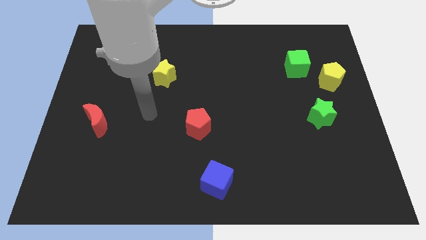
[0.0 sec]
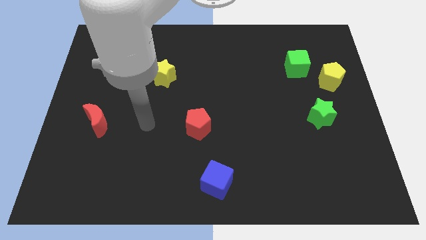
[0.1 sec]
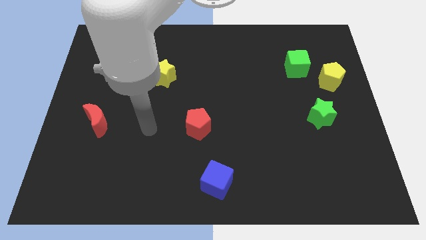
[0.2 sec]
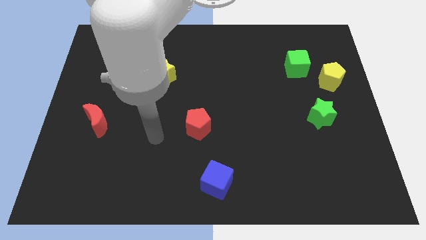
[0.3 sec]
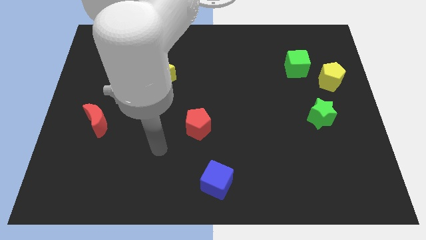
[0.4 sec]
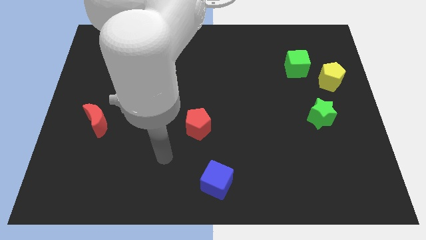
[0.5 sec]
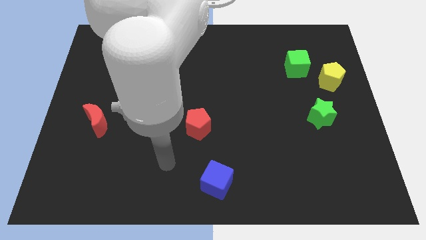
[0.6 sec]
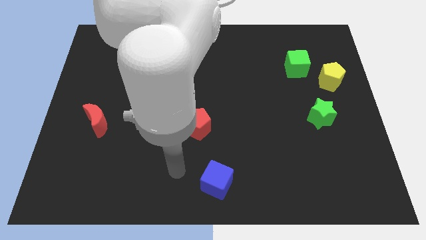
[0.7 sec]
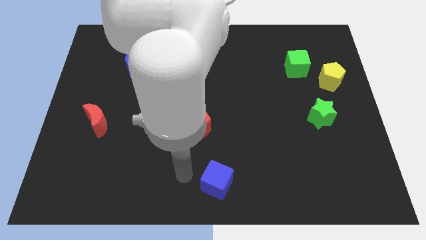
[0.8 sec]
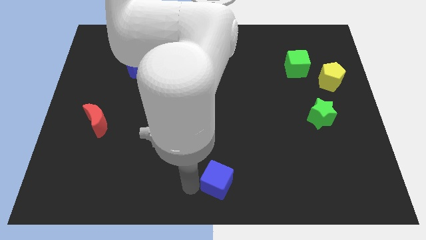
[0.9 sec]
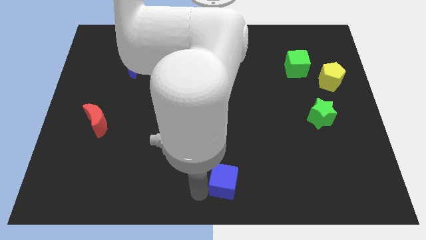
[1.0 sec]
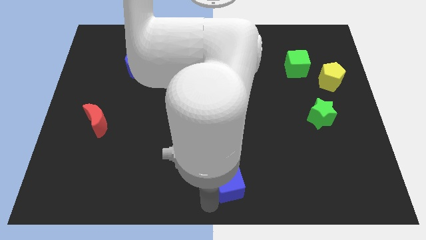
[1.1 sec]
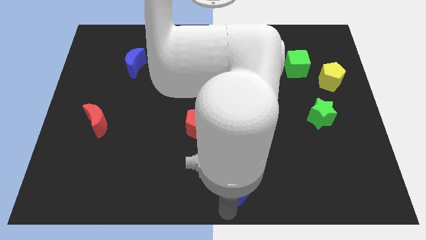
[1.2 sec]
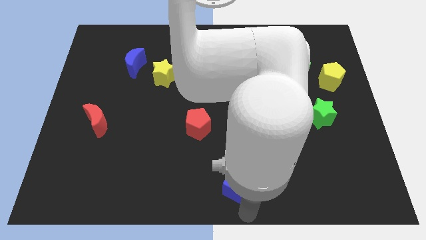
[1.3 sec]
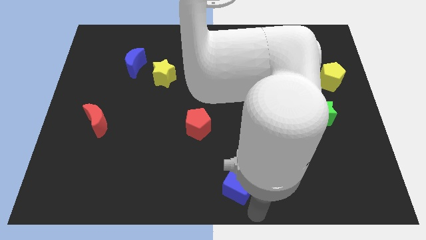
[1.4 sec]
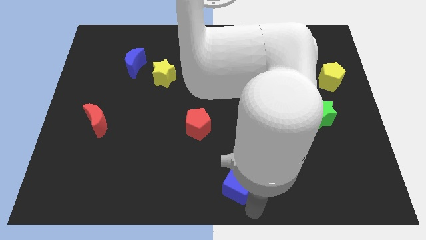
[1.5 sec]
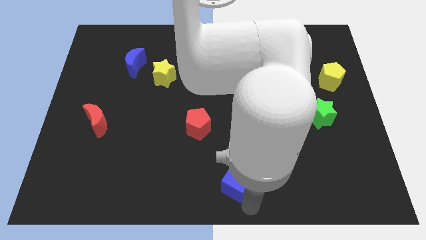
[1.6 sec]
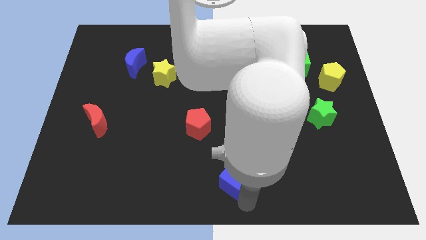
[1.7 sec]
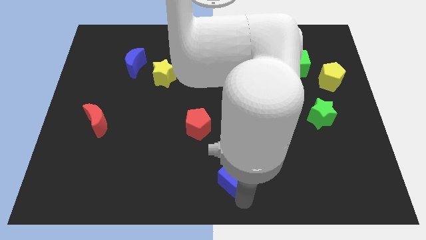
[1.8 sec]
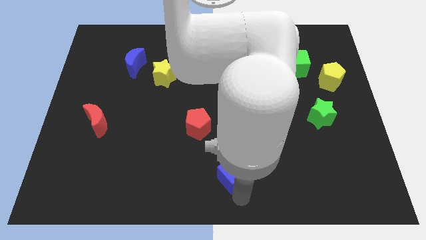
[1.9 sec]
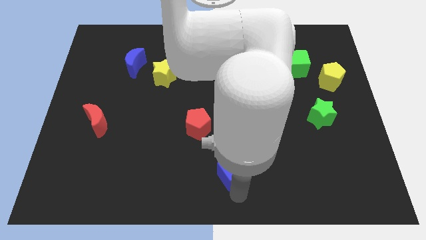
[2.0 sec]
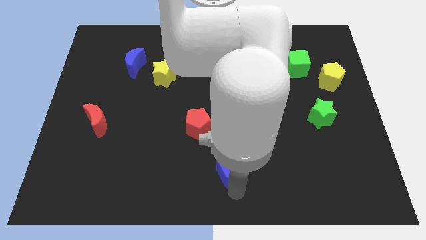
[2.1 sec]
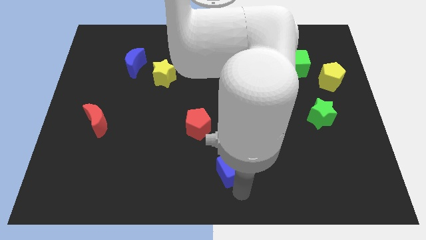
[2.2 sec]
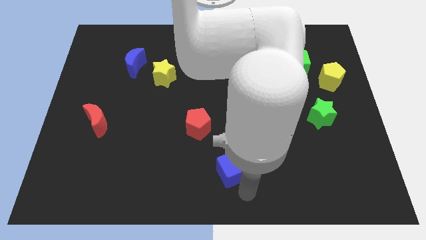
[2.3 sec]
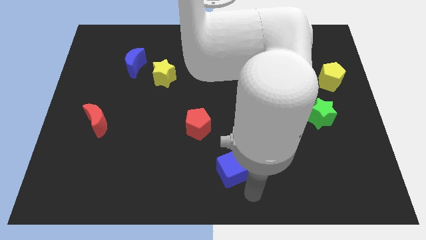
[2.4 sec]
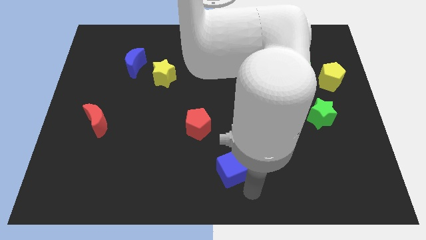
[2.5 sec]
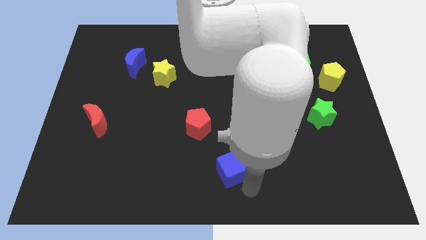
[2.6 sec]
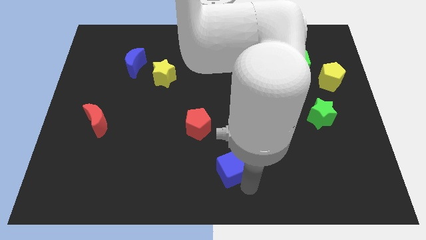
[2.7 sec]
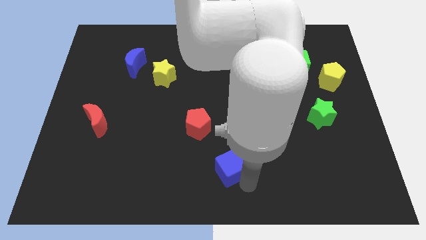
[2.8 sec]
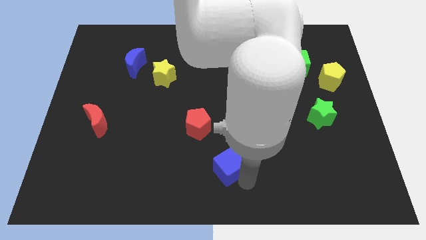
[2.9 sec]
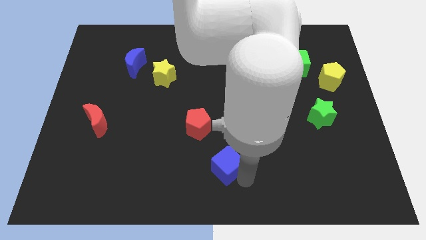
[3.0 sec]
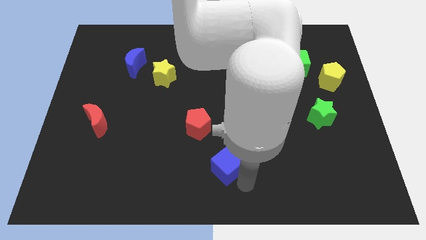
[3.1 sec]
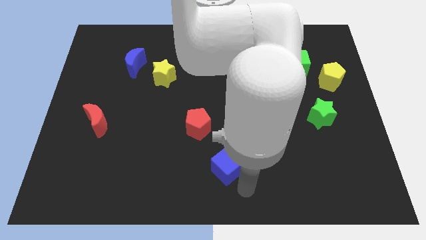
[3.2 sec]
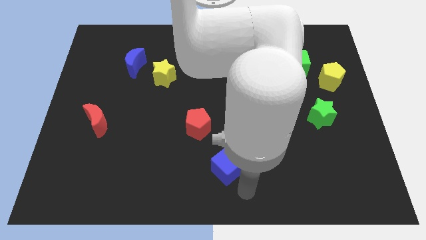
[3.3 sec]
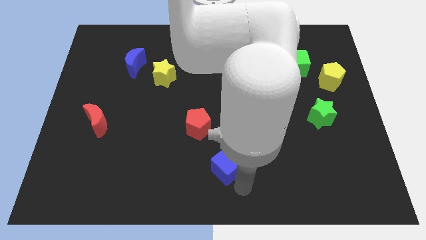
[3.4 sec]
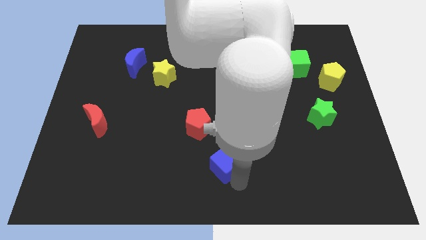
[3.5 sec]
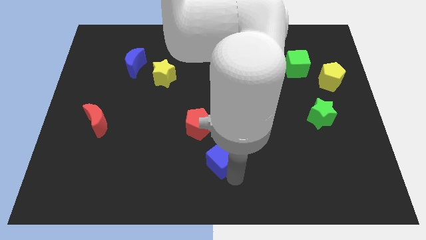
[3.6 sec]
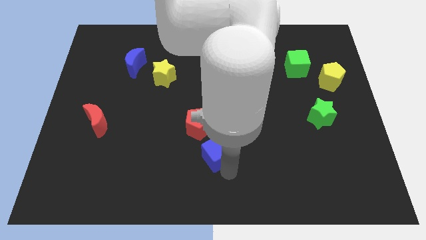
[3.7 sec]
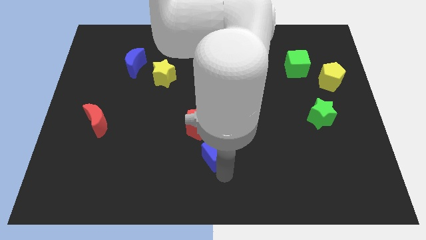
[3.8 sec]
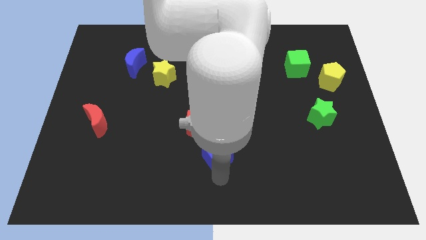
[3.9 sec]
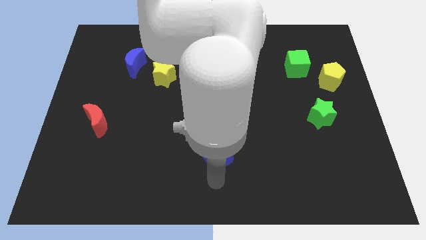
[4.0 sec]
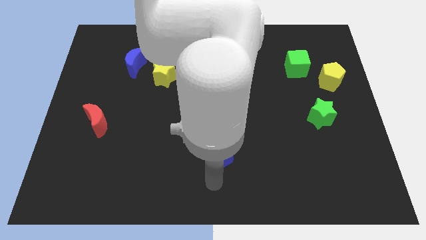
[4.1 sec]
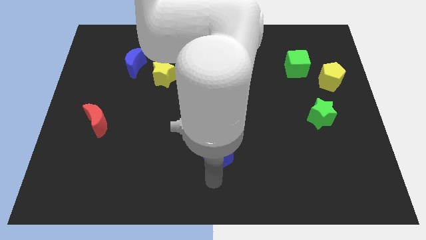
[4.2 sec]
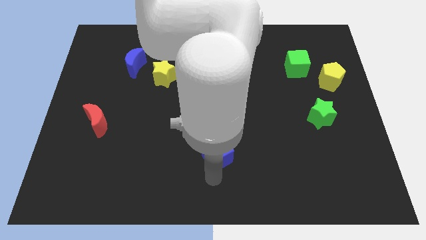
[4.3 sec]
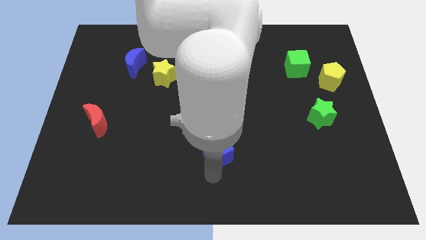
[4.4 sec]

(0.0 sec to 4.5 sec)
slightly push the blue cube up

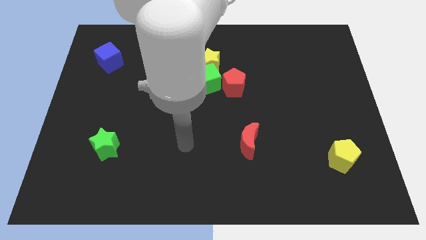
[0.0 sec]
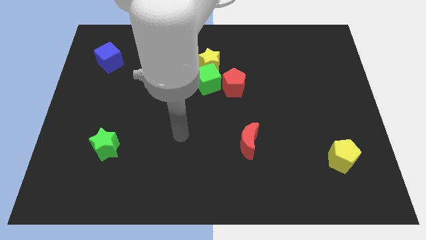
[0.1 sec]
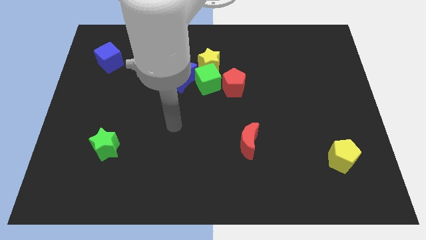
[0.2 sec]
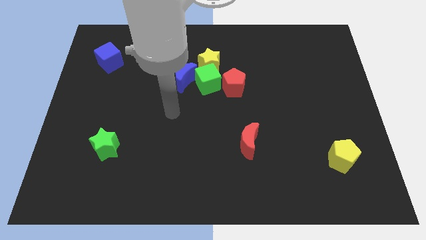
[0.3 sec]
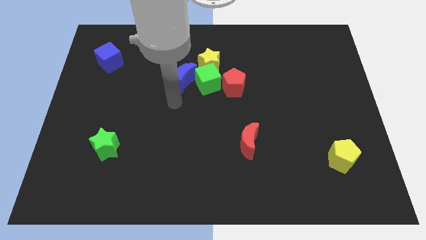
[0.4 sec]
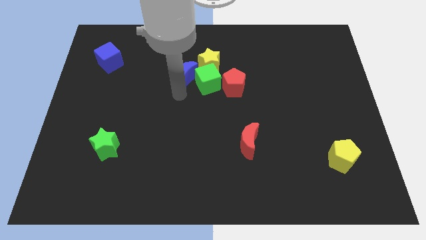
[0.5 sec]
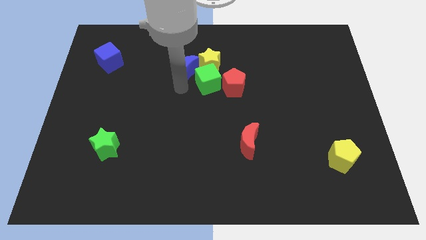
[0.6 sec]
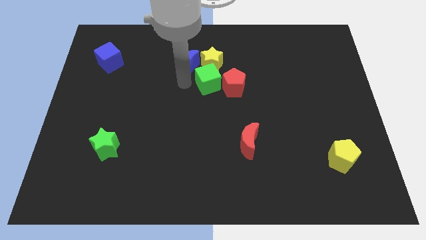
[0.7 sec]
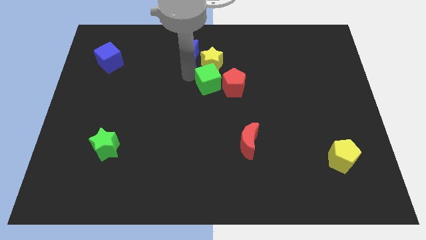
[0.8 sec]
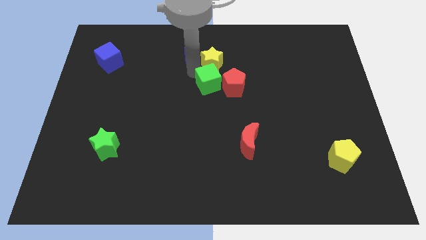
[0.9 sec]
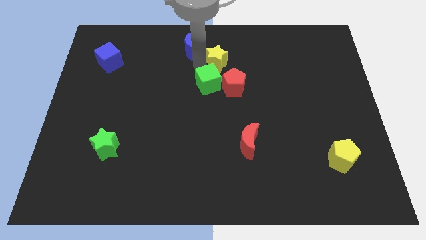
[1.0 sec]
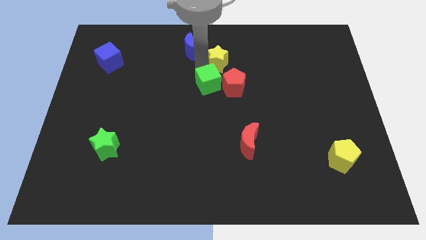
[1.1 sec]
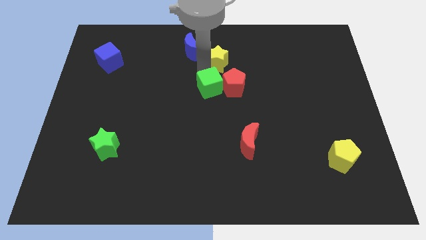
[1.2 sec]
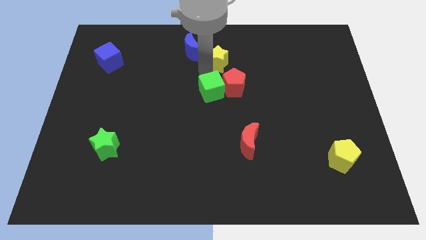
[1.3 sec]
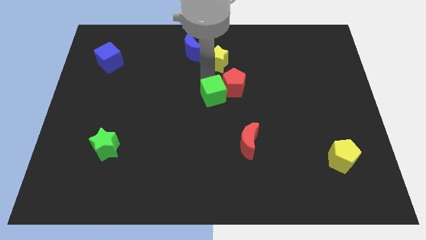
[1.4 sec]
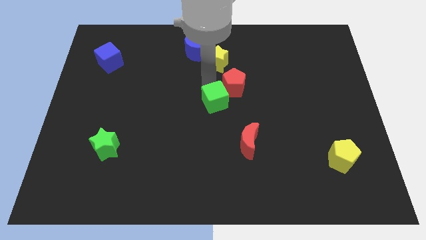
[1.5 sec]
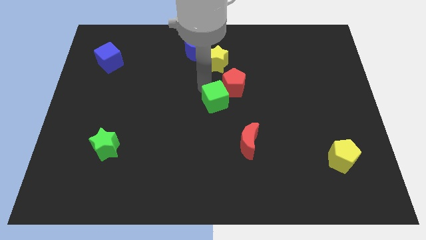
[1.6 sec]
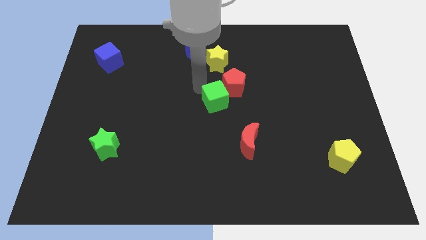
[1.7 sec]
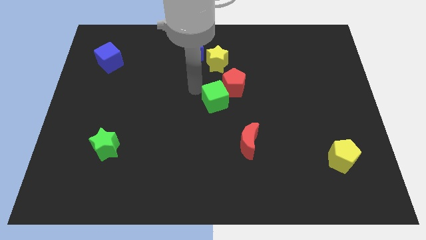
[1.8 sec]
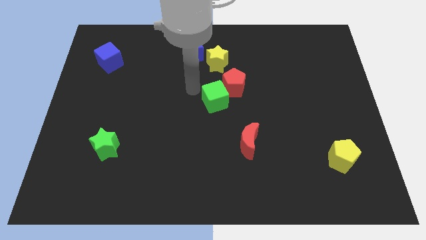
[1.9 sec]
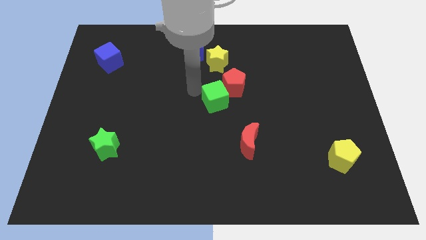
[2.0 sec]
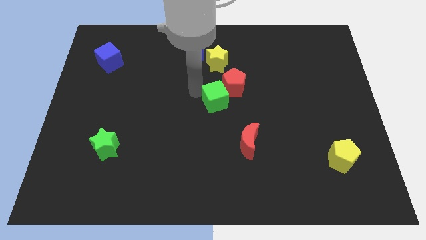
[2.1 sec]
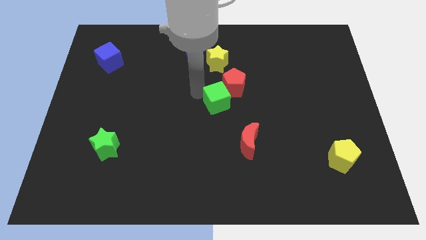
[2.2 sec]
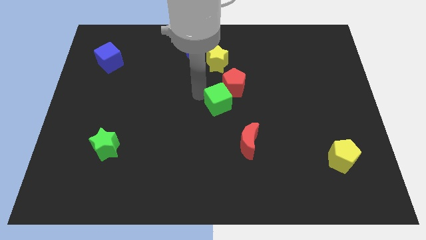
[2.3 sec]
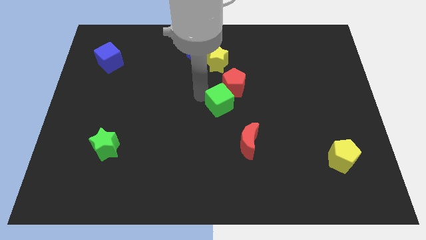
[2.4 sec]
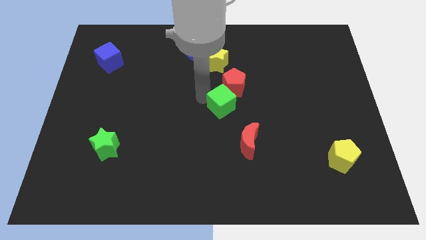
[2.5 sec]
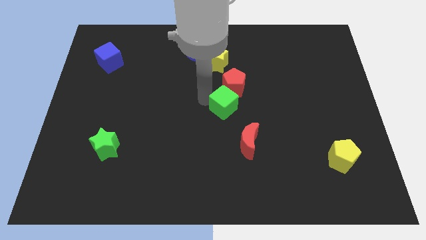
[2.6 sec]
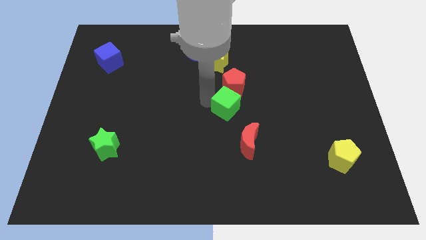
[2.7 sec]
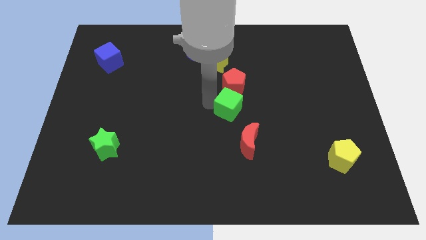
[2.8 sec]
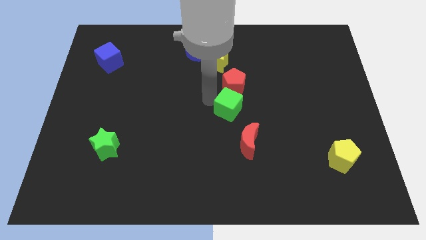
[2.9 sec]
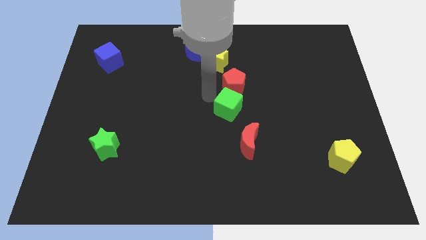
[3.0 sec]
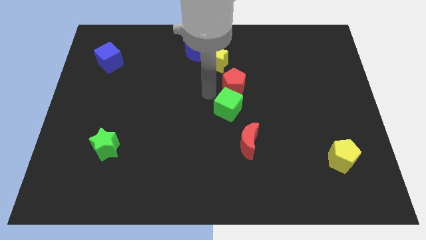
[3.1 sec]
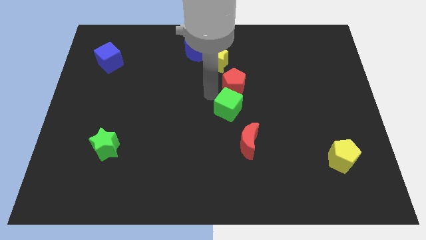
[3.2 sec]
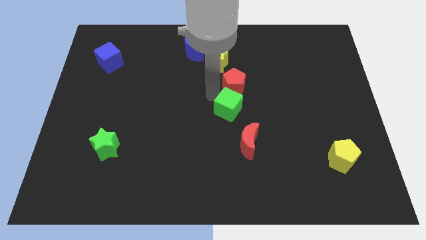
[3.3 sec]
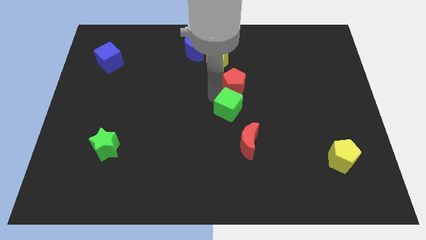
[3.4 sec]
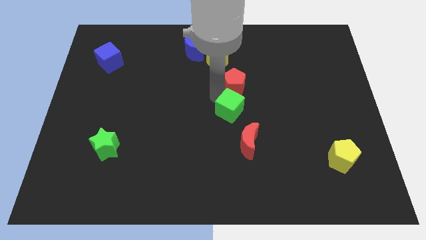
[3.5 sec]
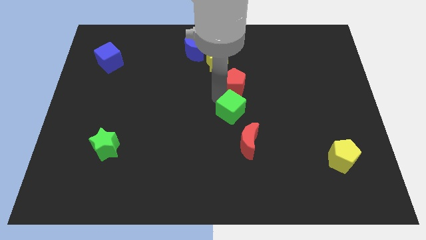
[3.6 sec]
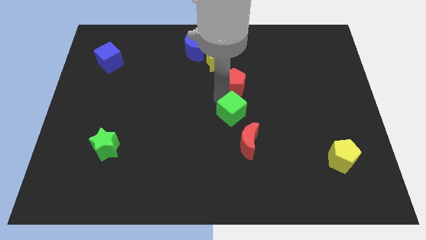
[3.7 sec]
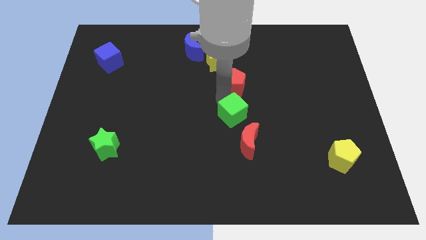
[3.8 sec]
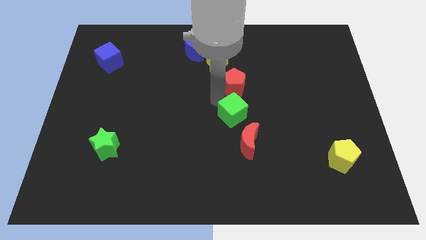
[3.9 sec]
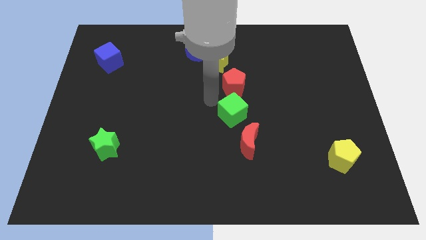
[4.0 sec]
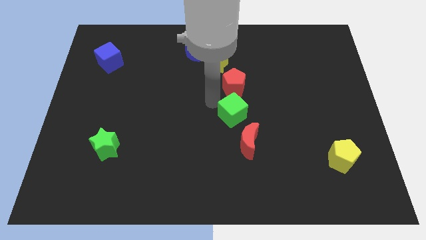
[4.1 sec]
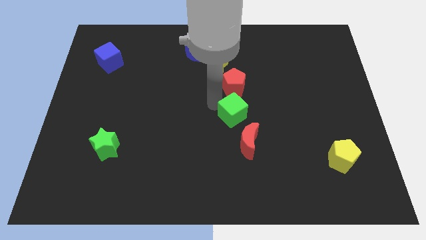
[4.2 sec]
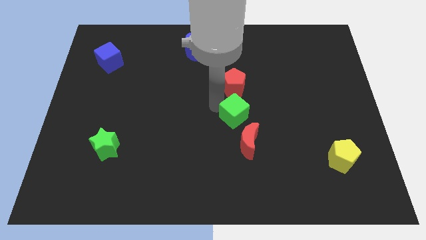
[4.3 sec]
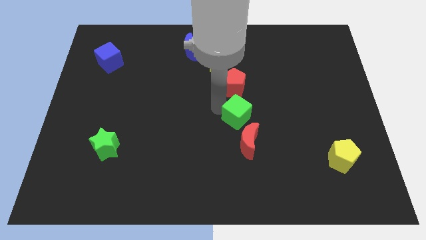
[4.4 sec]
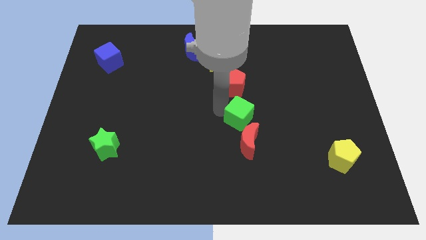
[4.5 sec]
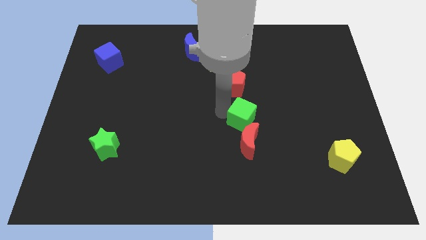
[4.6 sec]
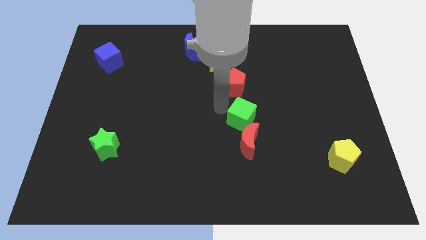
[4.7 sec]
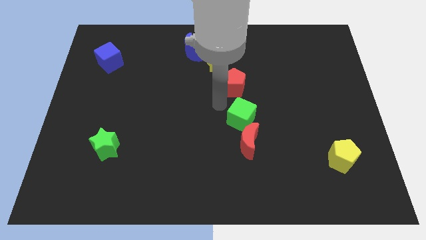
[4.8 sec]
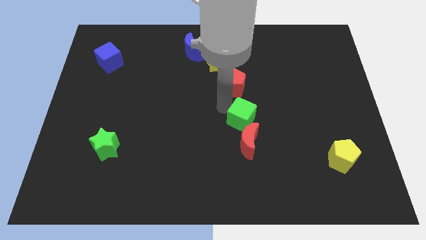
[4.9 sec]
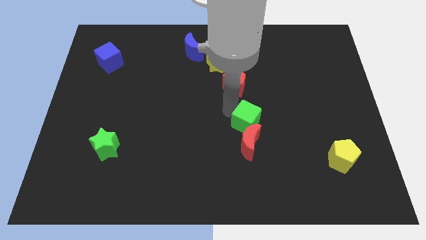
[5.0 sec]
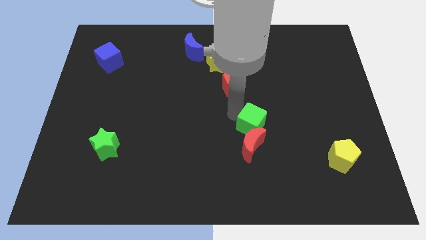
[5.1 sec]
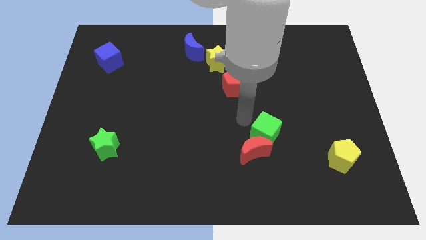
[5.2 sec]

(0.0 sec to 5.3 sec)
push the green cube down and then to the right
